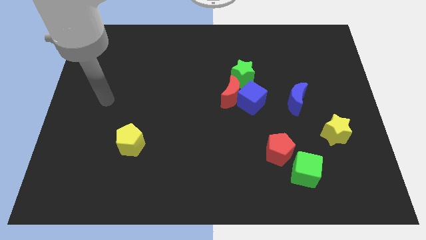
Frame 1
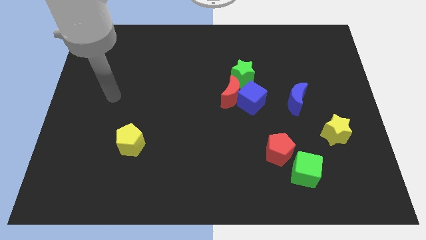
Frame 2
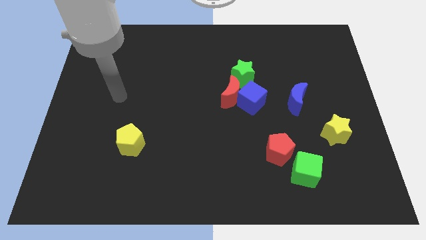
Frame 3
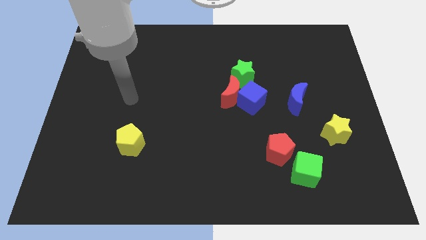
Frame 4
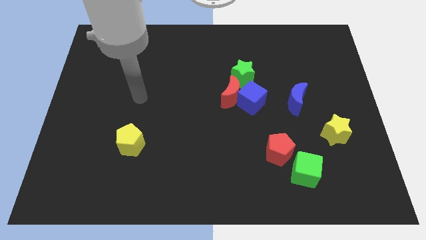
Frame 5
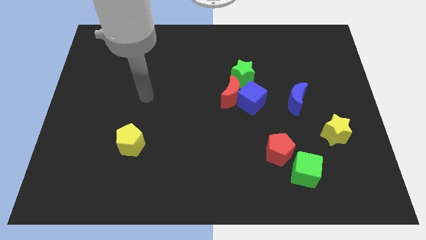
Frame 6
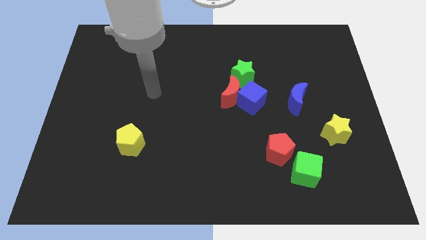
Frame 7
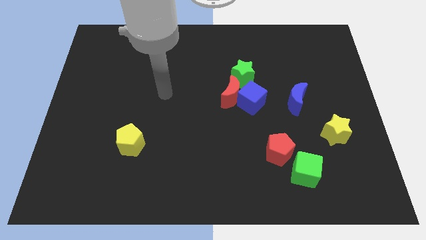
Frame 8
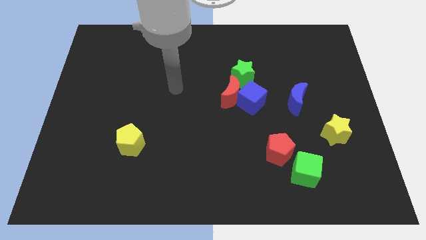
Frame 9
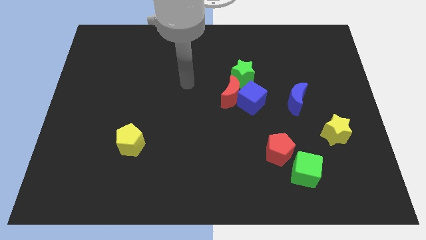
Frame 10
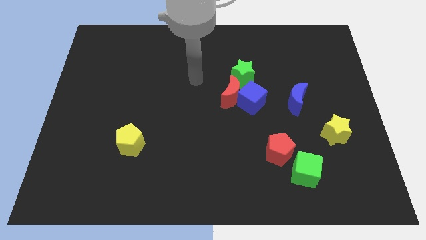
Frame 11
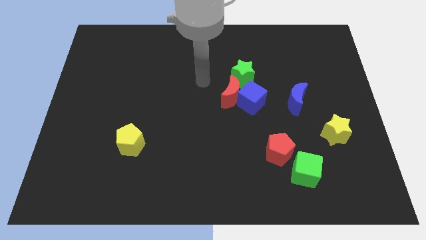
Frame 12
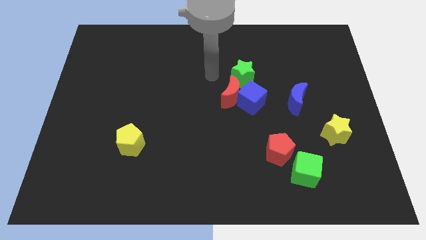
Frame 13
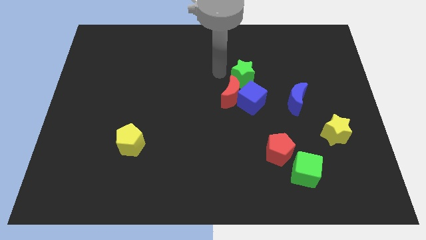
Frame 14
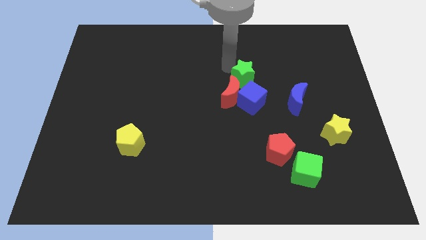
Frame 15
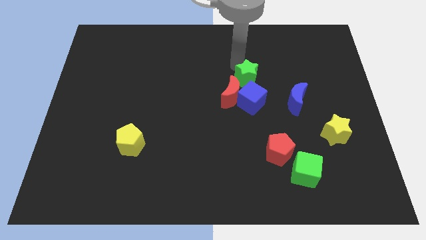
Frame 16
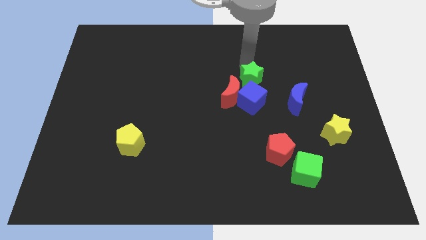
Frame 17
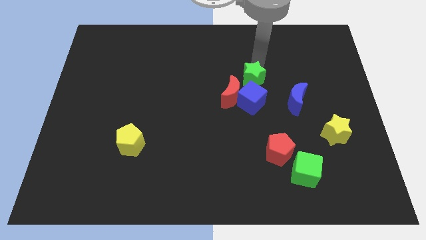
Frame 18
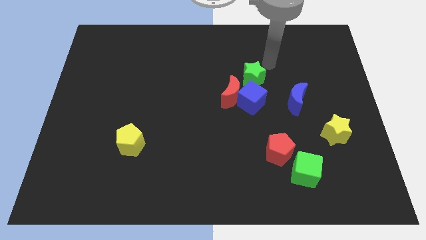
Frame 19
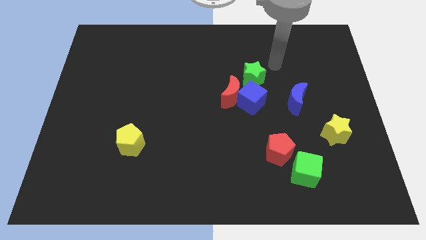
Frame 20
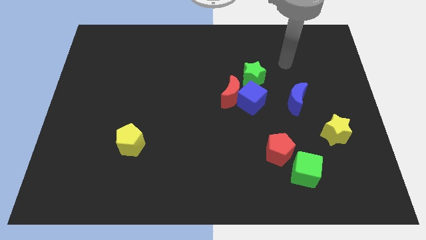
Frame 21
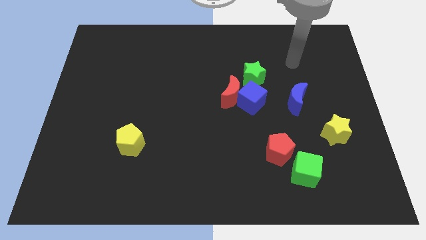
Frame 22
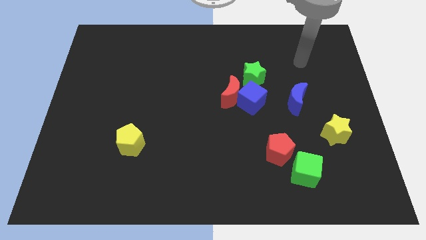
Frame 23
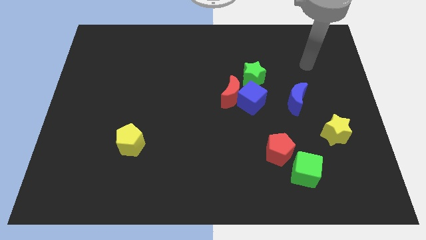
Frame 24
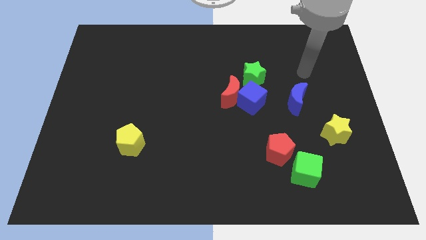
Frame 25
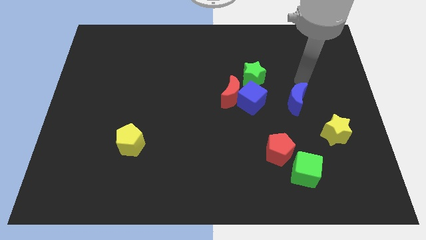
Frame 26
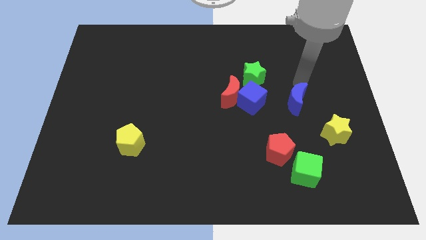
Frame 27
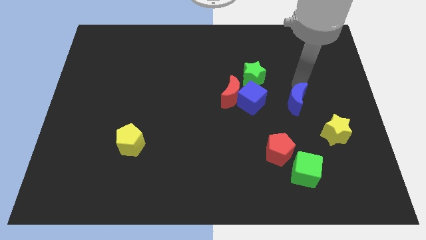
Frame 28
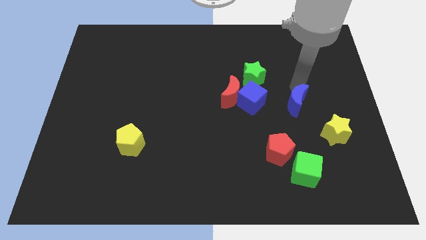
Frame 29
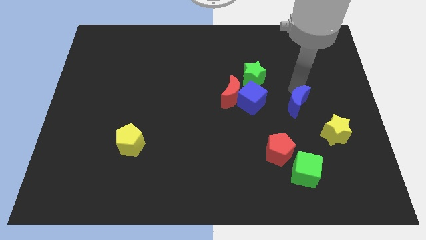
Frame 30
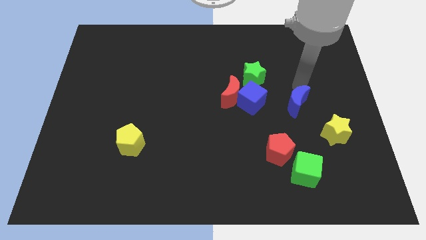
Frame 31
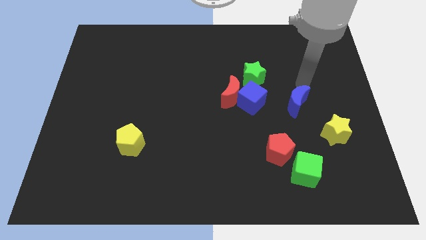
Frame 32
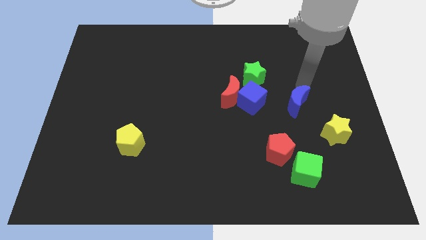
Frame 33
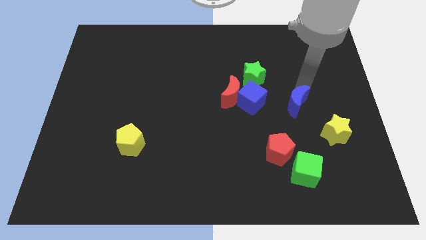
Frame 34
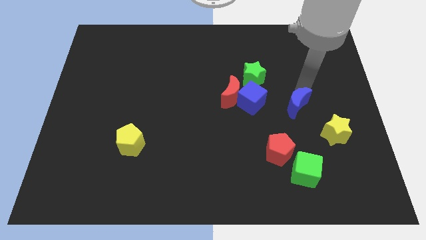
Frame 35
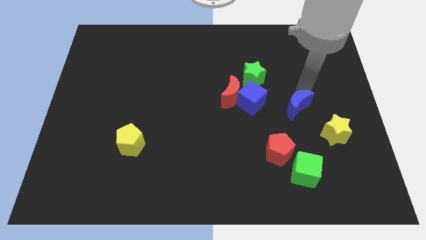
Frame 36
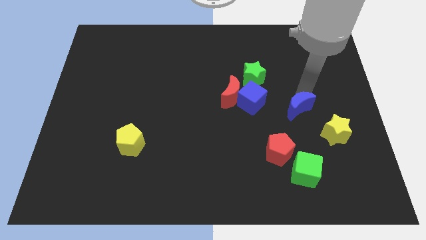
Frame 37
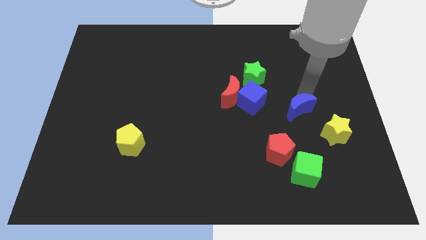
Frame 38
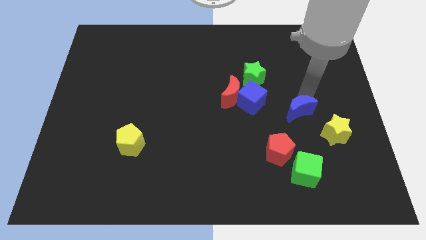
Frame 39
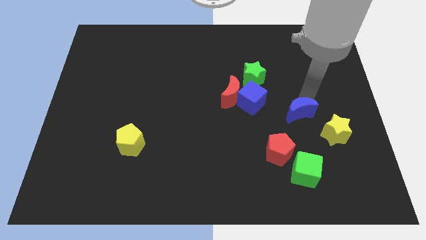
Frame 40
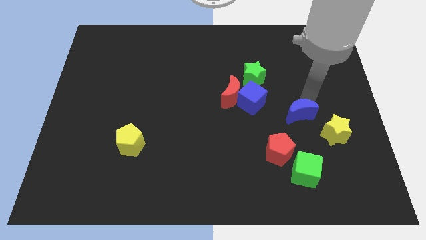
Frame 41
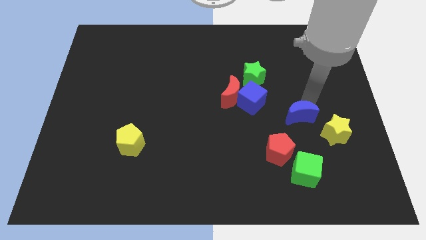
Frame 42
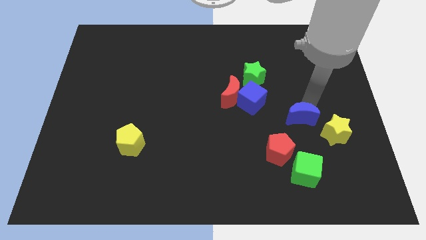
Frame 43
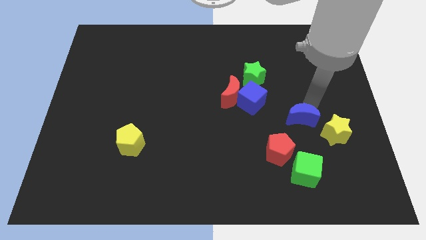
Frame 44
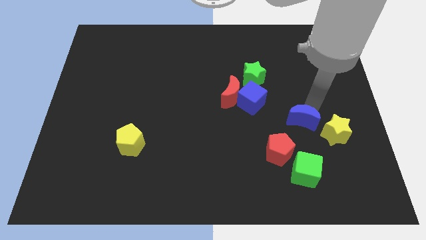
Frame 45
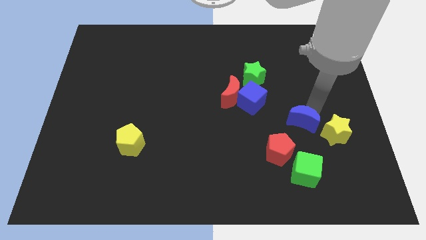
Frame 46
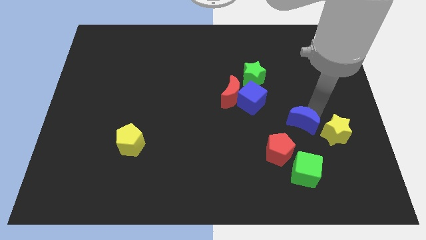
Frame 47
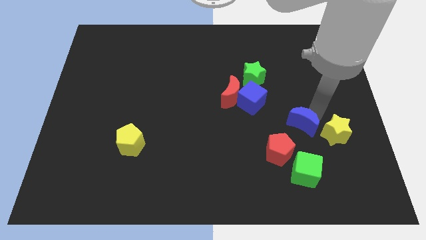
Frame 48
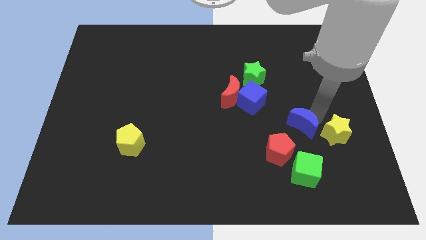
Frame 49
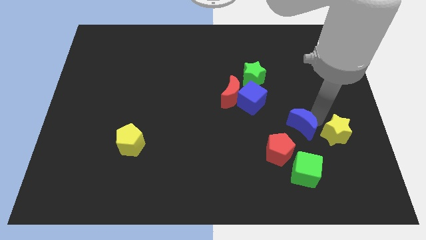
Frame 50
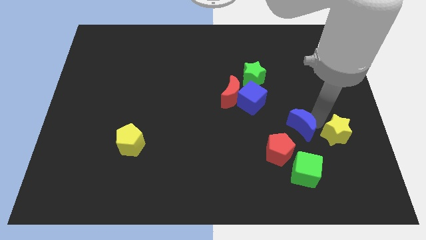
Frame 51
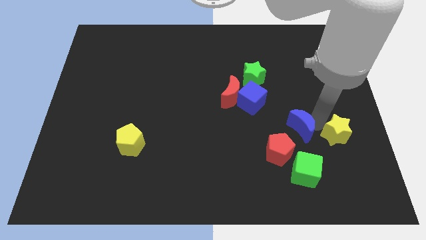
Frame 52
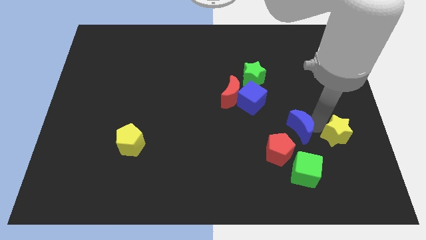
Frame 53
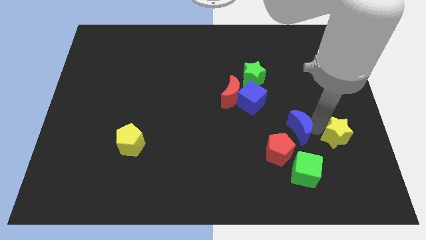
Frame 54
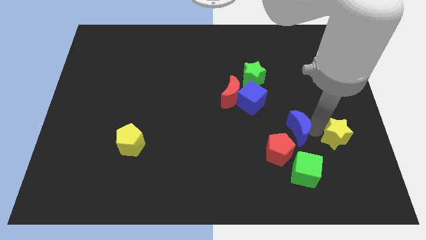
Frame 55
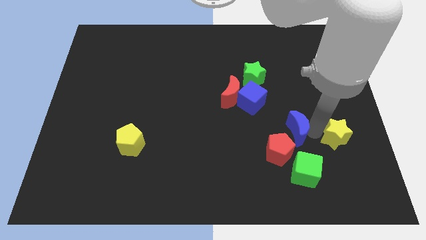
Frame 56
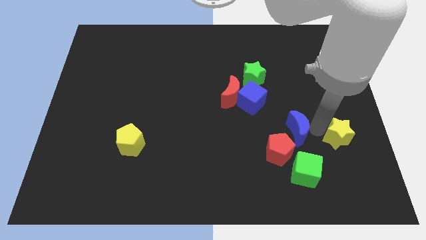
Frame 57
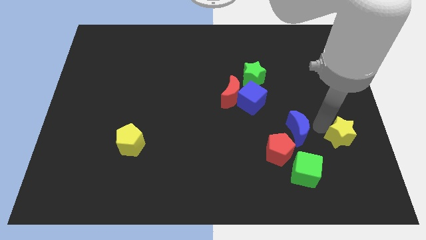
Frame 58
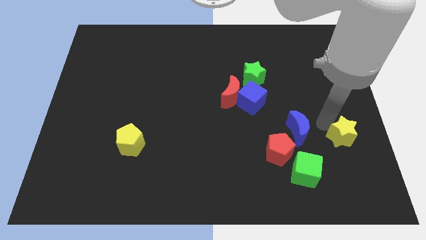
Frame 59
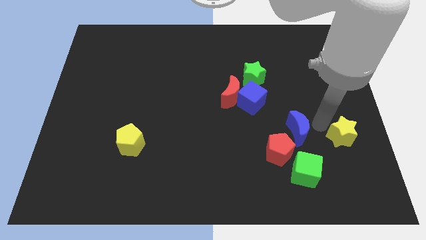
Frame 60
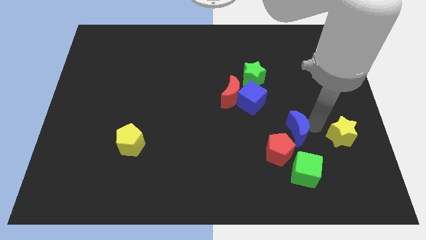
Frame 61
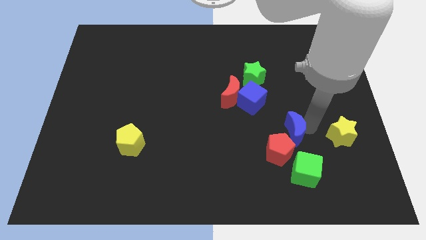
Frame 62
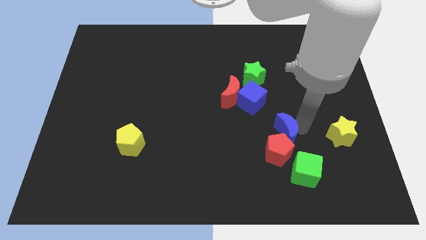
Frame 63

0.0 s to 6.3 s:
put the blue moon to the red pentagon

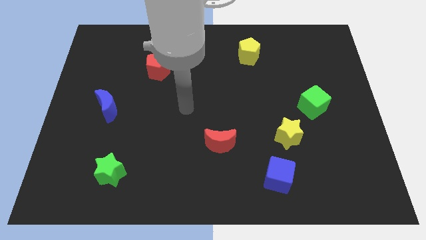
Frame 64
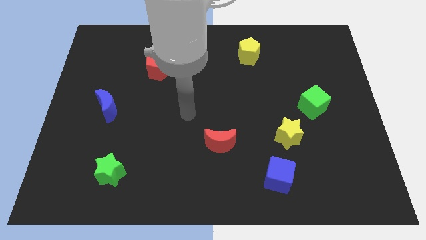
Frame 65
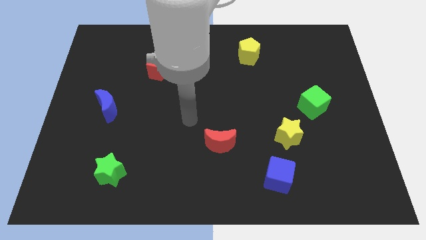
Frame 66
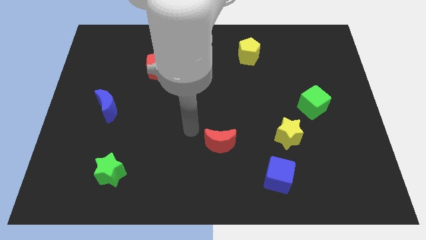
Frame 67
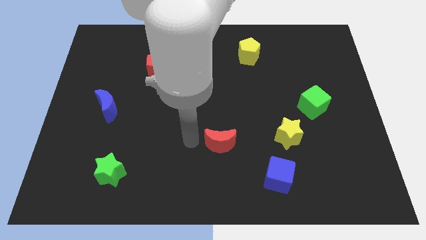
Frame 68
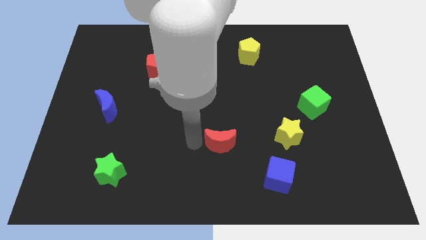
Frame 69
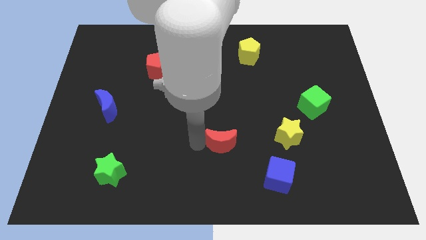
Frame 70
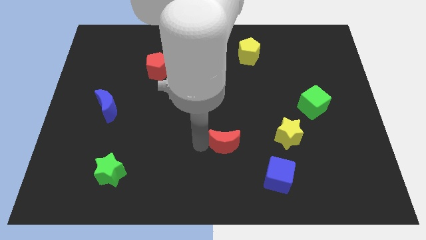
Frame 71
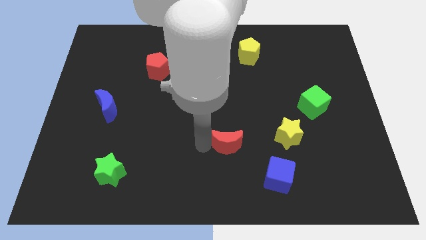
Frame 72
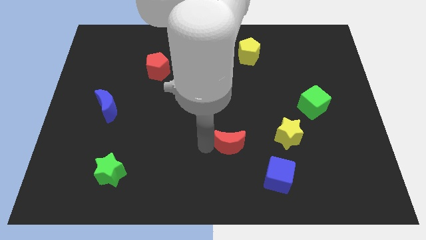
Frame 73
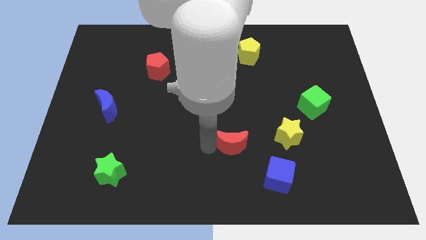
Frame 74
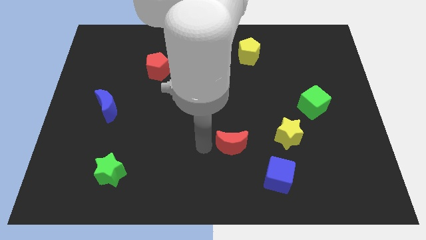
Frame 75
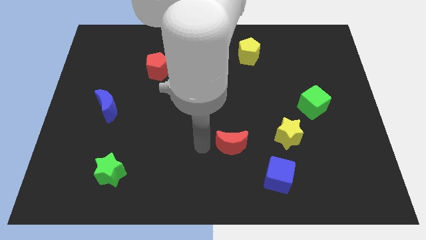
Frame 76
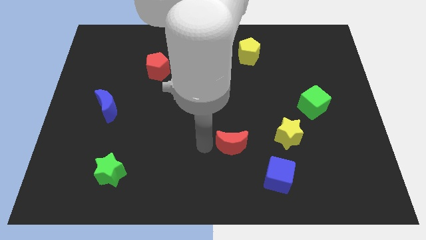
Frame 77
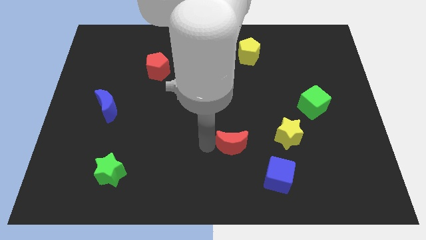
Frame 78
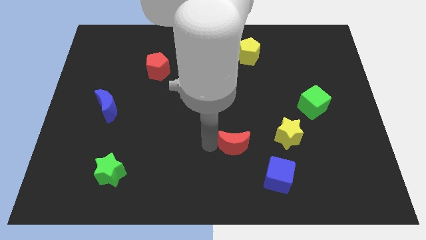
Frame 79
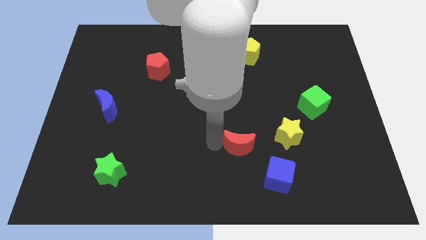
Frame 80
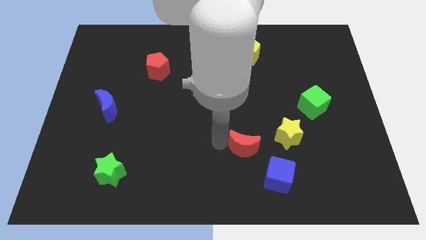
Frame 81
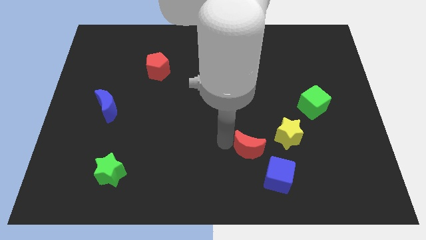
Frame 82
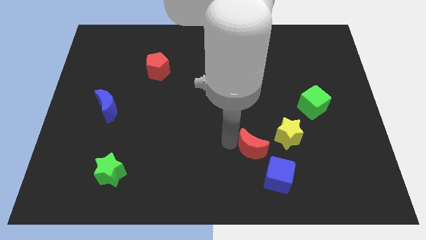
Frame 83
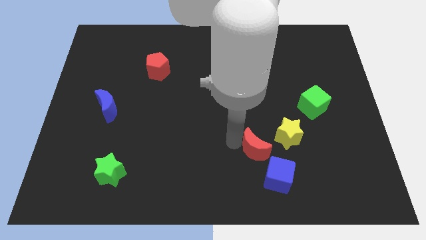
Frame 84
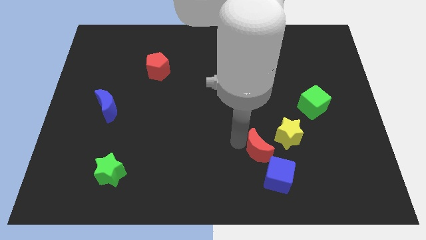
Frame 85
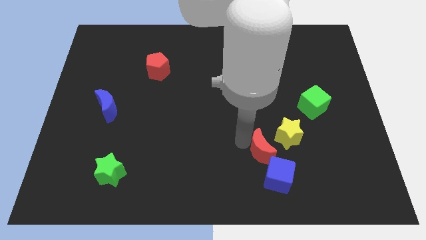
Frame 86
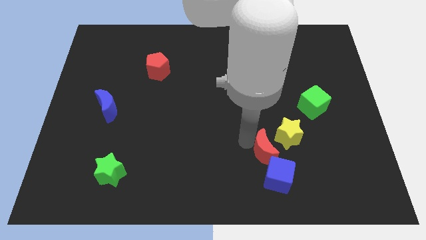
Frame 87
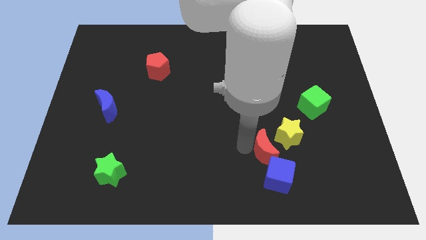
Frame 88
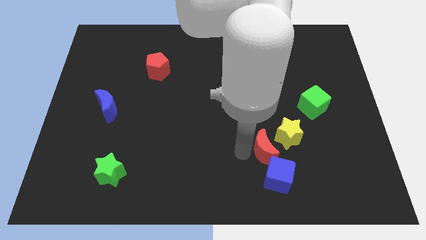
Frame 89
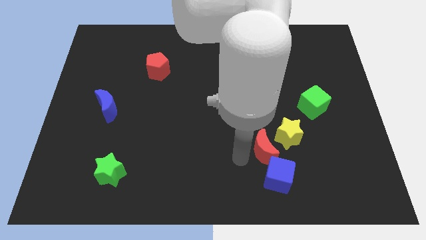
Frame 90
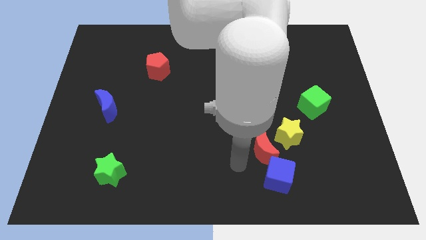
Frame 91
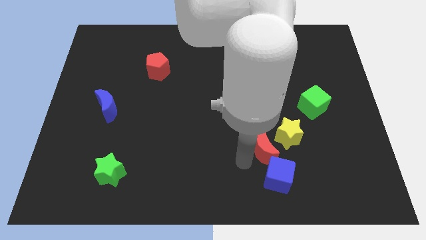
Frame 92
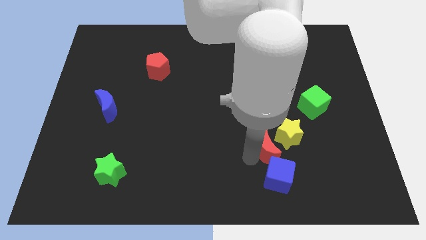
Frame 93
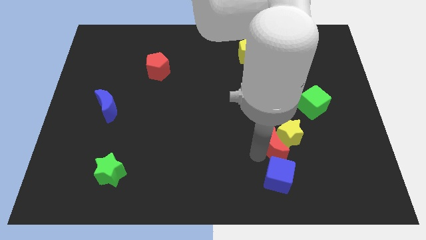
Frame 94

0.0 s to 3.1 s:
move the red moon next to the yellow star
